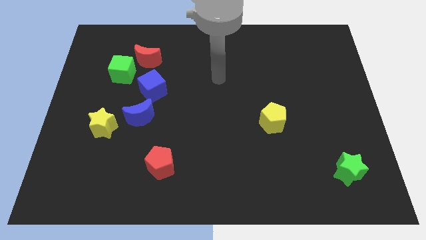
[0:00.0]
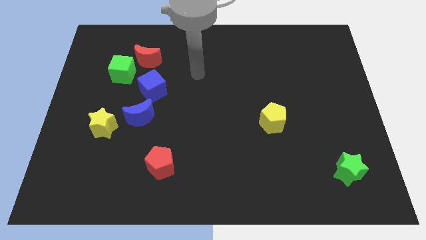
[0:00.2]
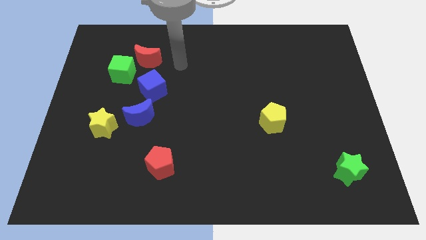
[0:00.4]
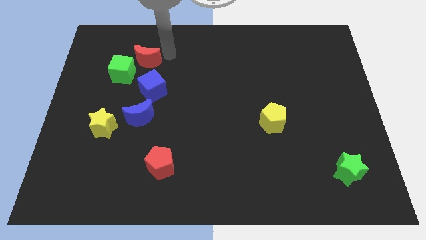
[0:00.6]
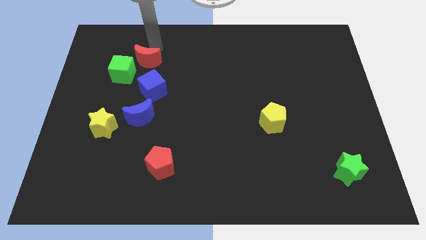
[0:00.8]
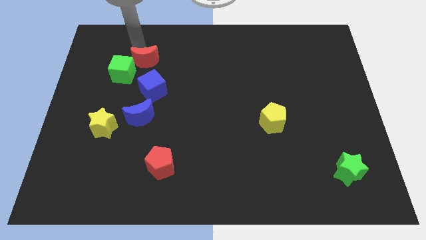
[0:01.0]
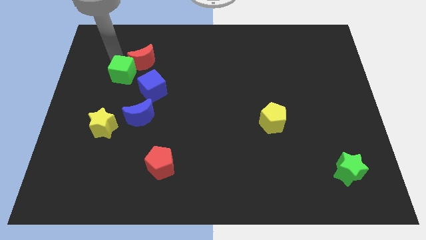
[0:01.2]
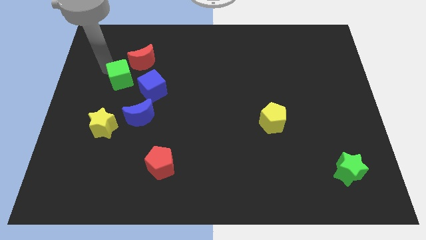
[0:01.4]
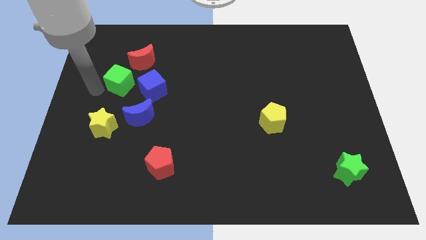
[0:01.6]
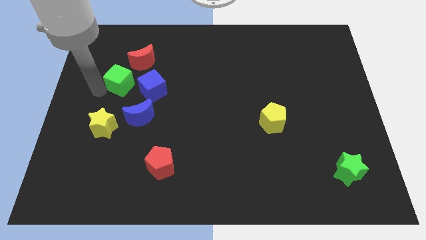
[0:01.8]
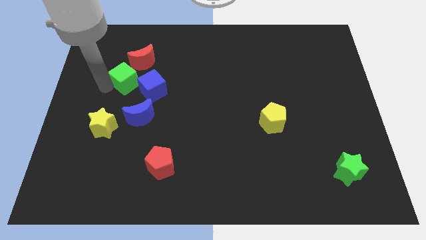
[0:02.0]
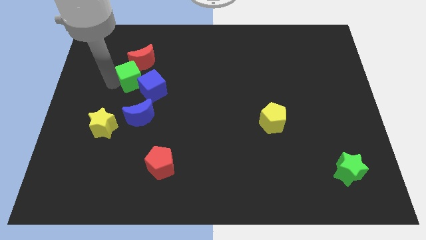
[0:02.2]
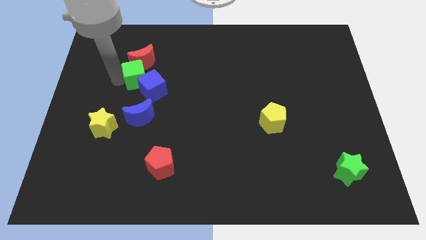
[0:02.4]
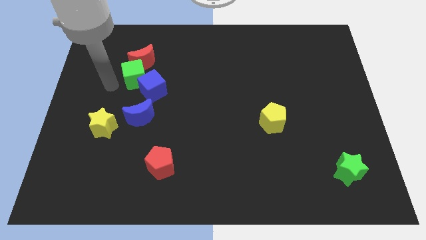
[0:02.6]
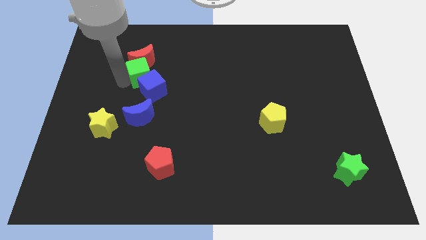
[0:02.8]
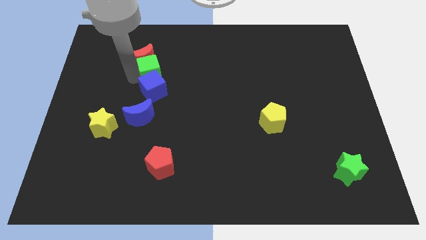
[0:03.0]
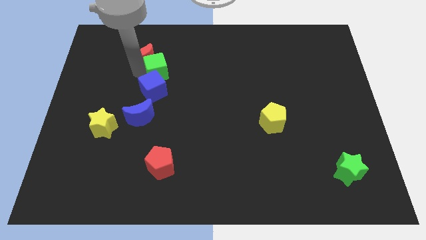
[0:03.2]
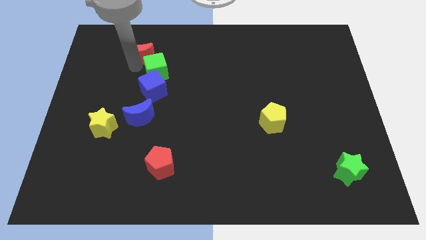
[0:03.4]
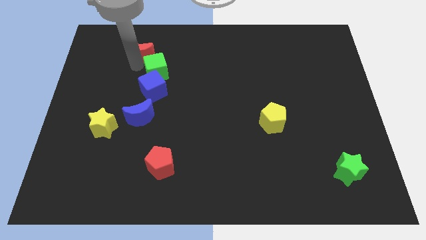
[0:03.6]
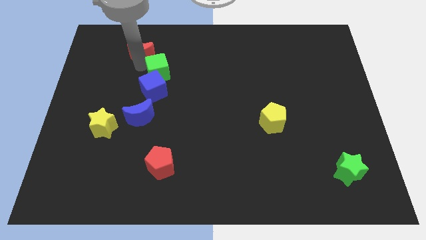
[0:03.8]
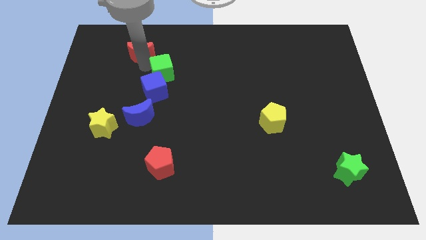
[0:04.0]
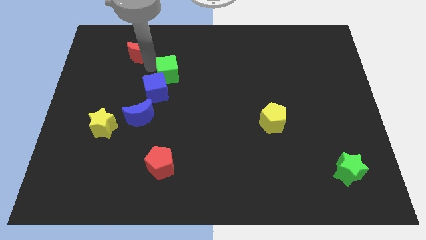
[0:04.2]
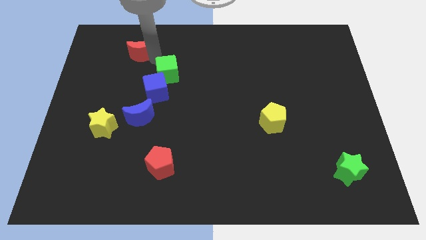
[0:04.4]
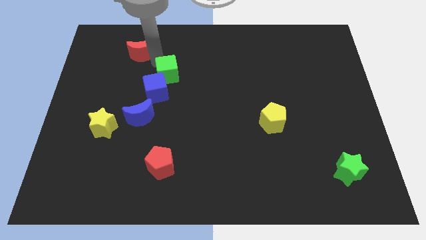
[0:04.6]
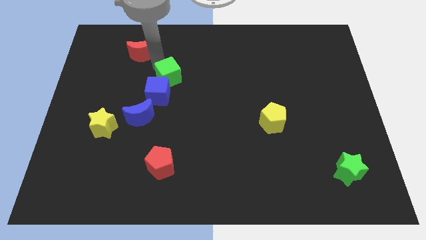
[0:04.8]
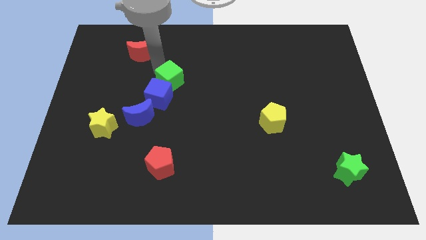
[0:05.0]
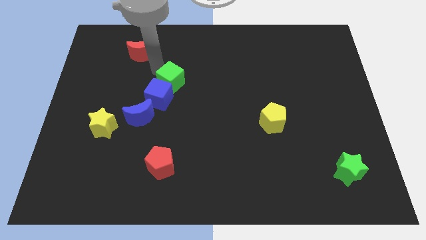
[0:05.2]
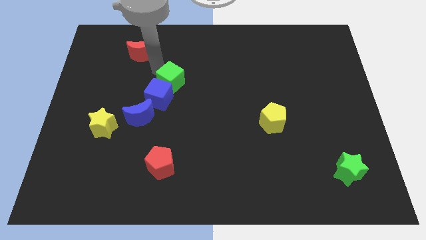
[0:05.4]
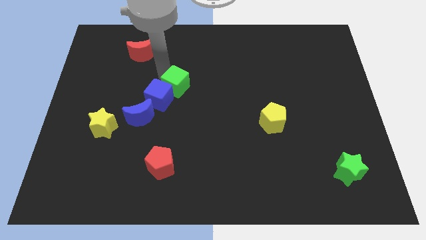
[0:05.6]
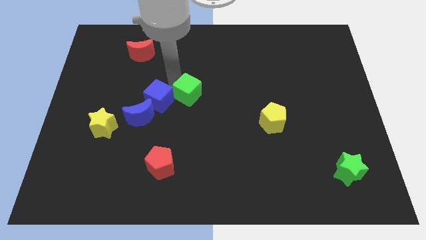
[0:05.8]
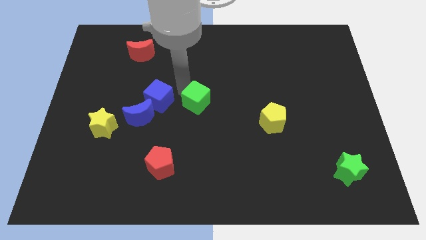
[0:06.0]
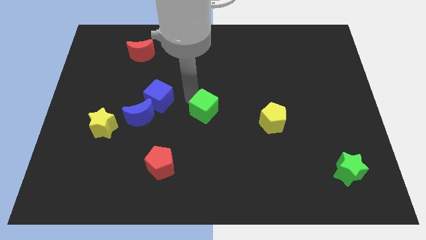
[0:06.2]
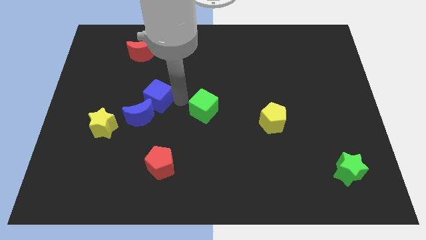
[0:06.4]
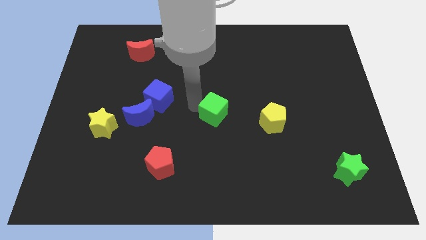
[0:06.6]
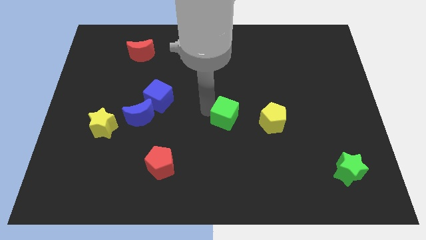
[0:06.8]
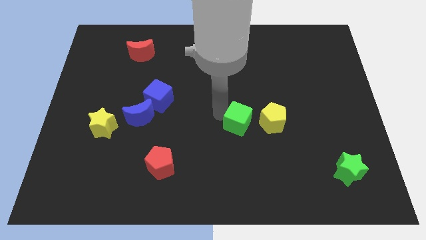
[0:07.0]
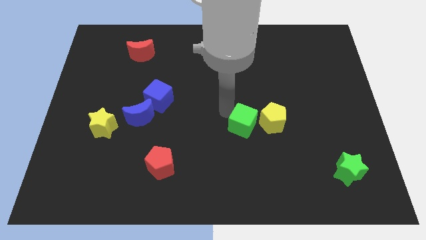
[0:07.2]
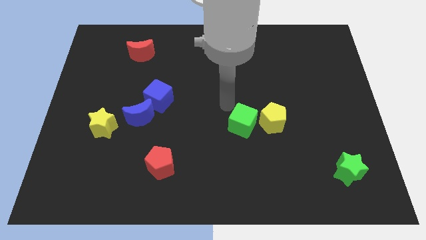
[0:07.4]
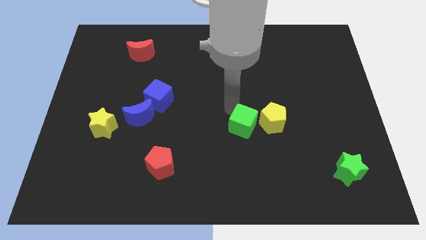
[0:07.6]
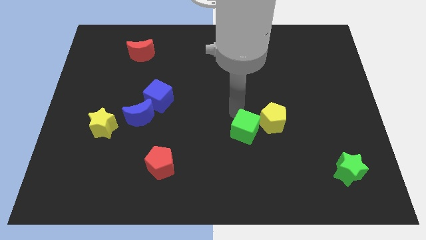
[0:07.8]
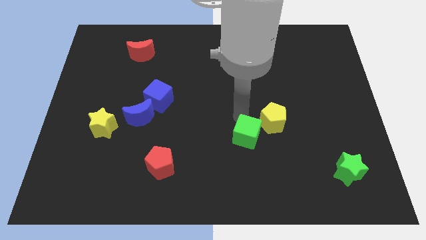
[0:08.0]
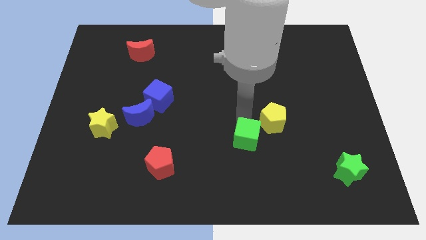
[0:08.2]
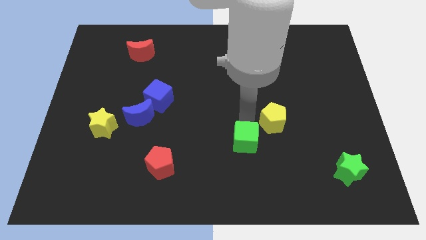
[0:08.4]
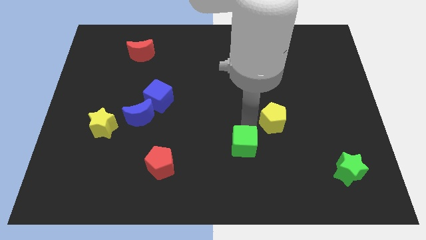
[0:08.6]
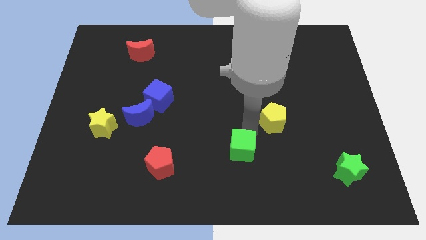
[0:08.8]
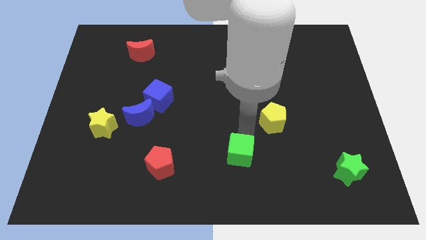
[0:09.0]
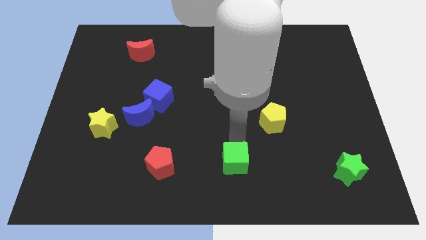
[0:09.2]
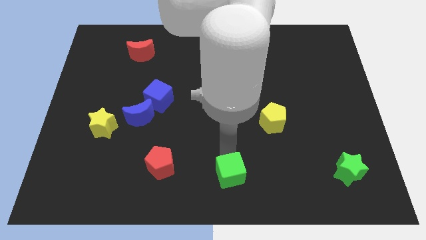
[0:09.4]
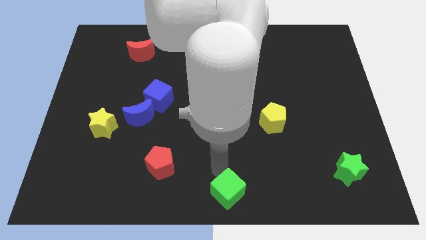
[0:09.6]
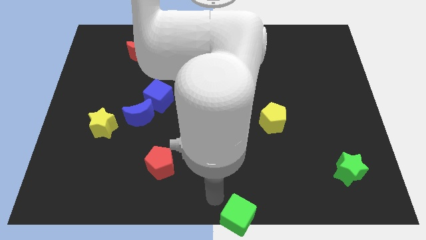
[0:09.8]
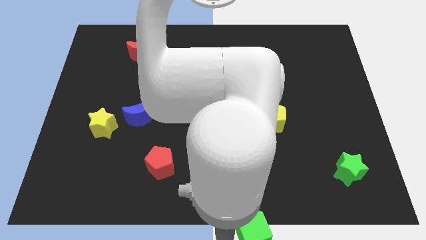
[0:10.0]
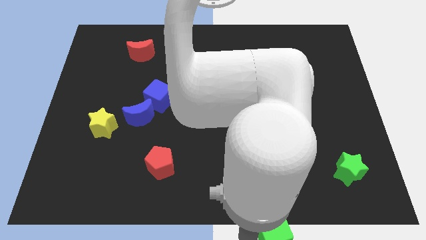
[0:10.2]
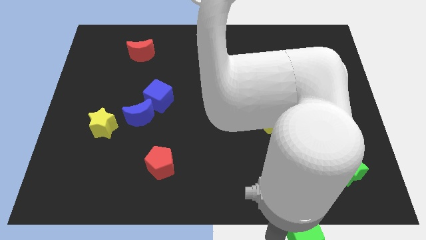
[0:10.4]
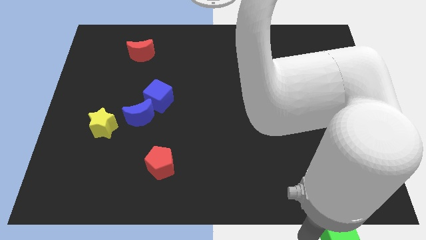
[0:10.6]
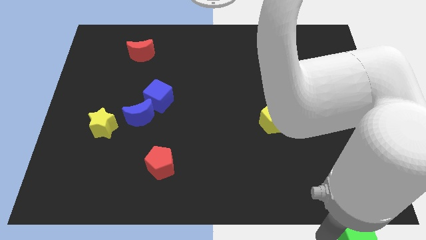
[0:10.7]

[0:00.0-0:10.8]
move the green cube to the bottom right corner

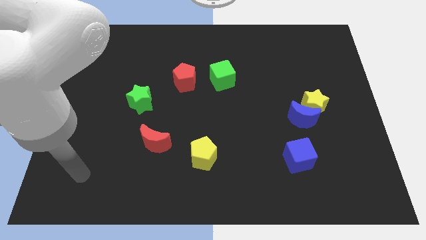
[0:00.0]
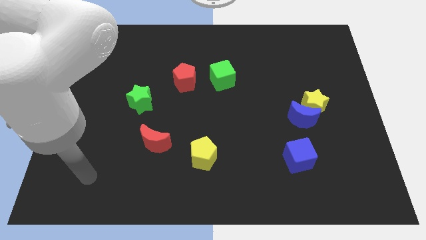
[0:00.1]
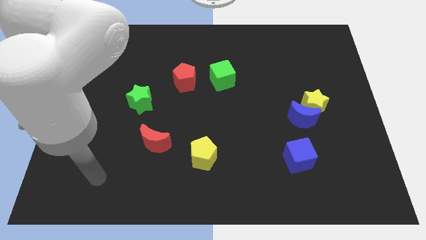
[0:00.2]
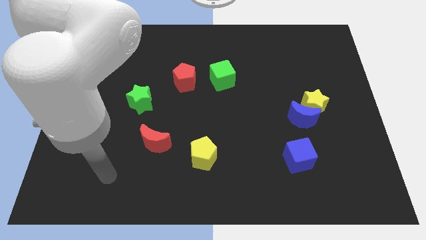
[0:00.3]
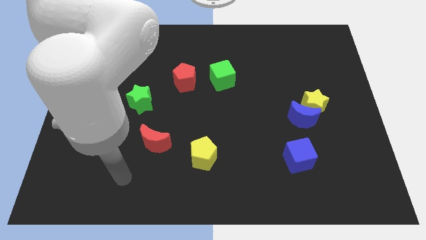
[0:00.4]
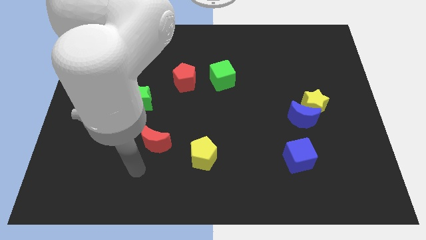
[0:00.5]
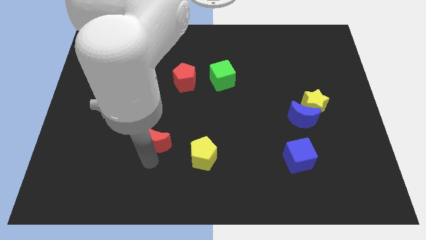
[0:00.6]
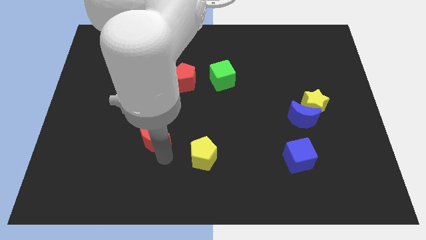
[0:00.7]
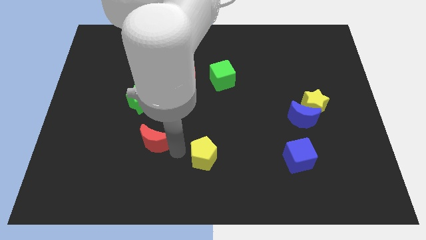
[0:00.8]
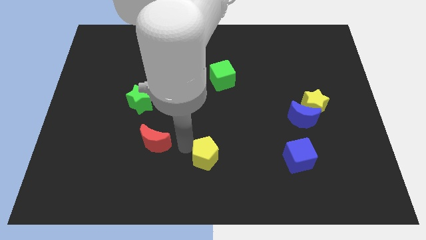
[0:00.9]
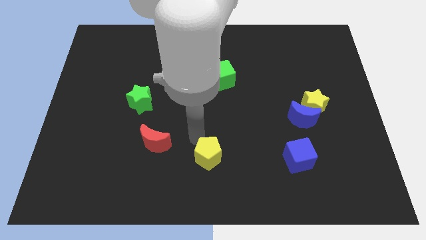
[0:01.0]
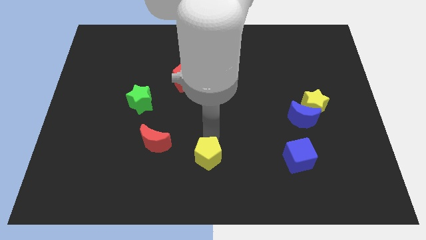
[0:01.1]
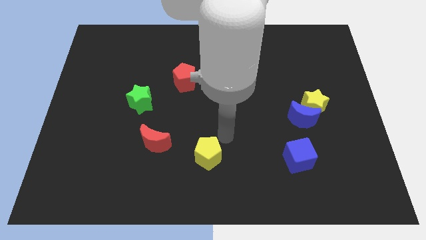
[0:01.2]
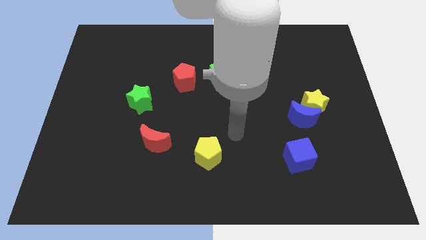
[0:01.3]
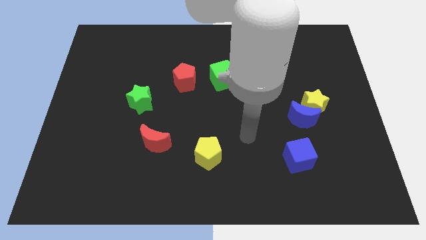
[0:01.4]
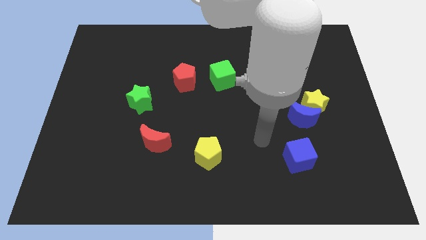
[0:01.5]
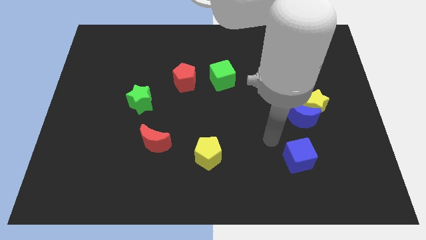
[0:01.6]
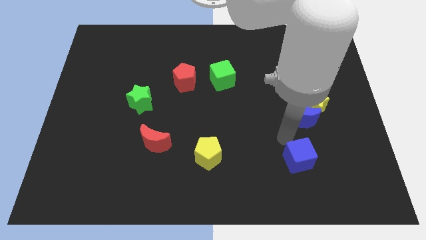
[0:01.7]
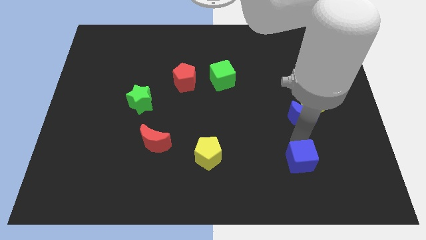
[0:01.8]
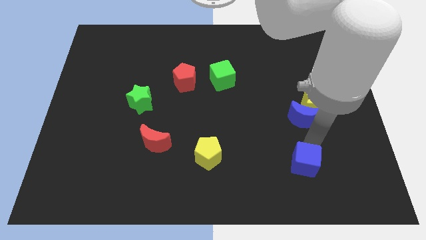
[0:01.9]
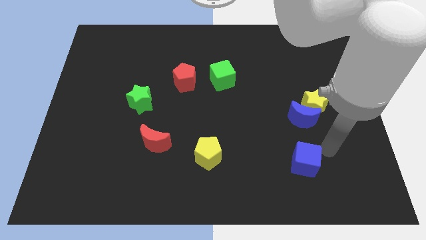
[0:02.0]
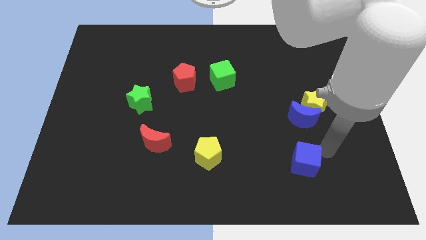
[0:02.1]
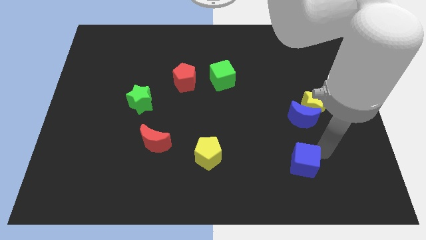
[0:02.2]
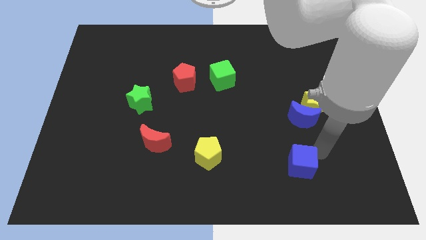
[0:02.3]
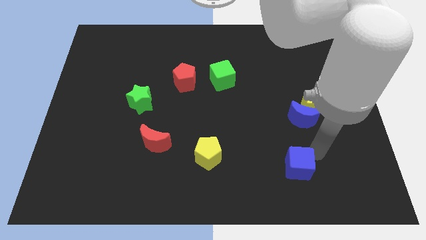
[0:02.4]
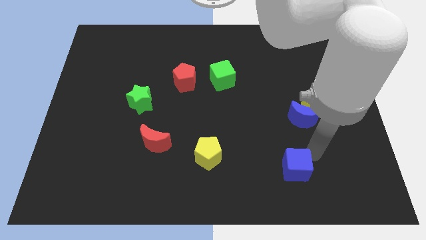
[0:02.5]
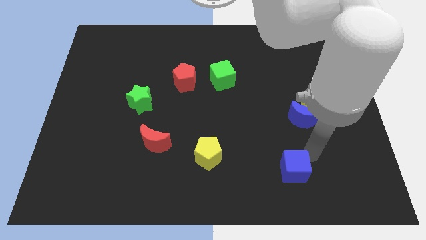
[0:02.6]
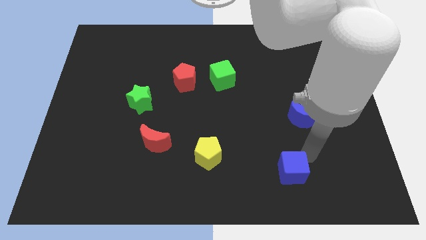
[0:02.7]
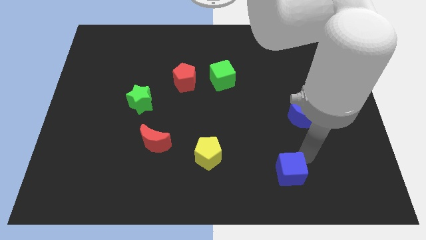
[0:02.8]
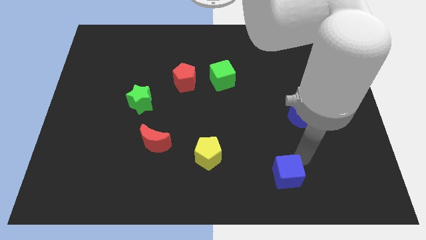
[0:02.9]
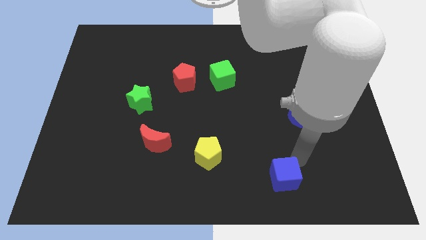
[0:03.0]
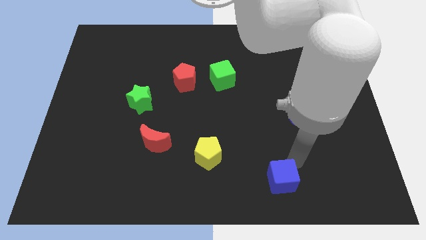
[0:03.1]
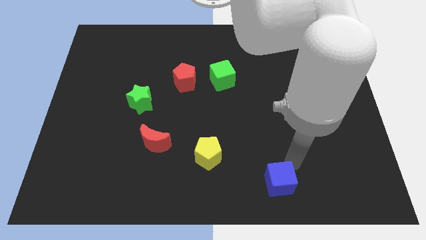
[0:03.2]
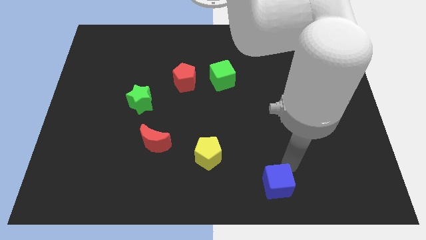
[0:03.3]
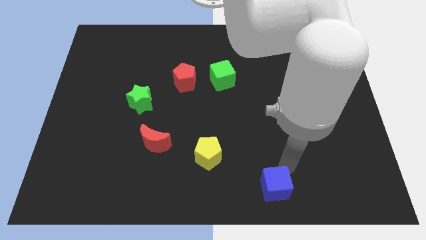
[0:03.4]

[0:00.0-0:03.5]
slide the blue cube to the bottom
